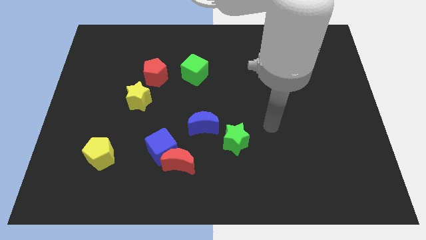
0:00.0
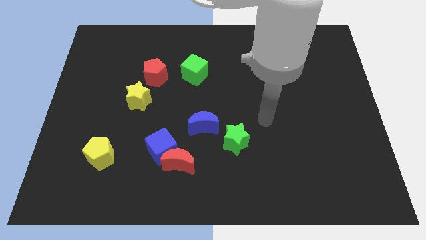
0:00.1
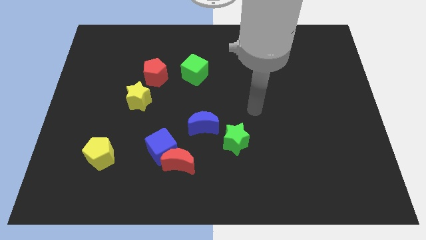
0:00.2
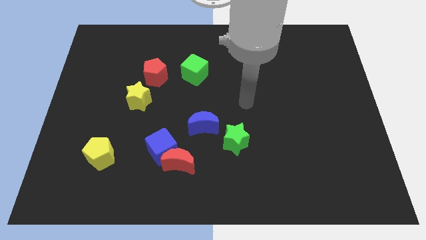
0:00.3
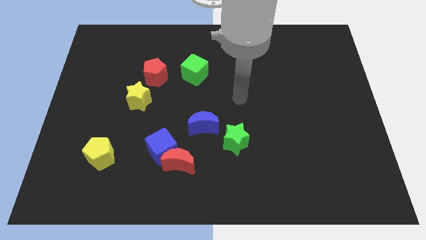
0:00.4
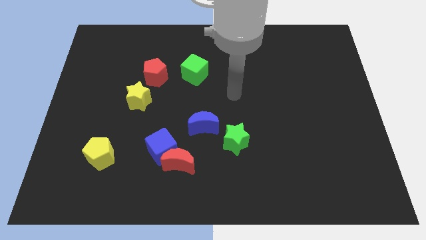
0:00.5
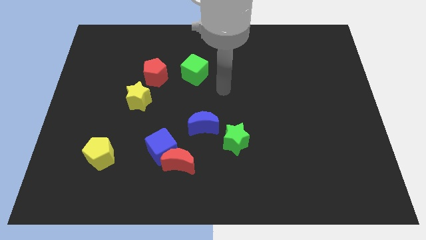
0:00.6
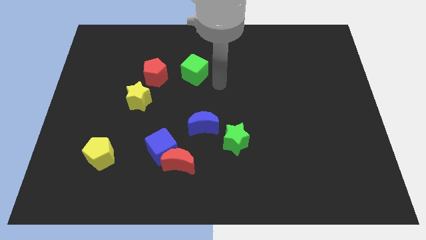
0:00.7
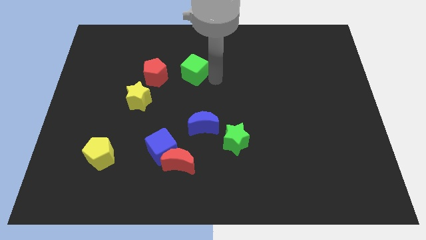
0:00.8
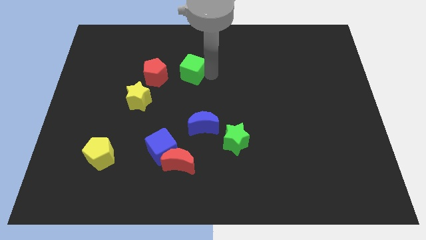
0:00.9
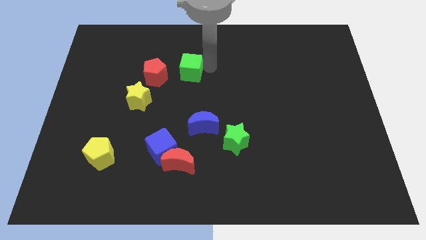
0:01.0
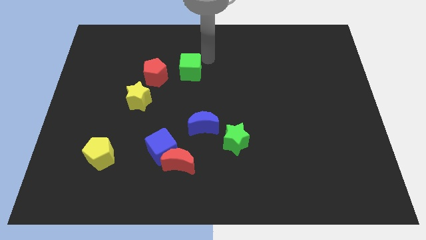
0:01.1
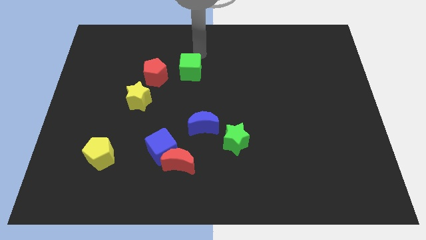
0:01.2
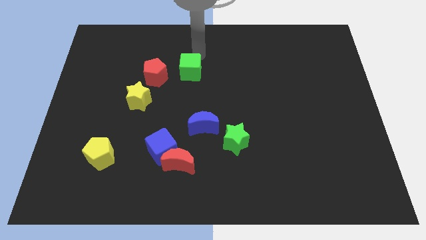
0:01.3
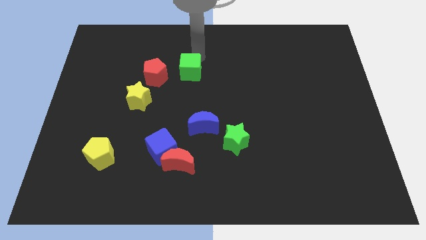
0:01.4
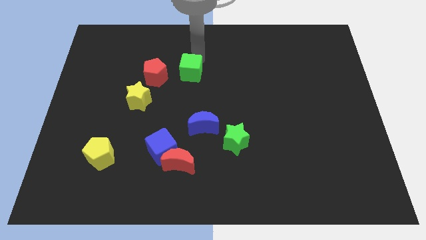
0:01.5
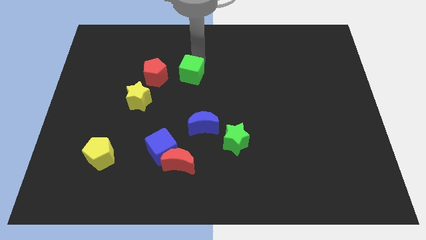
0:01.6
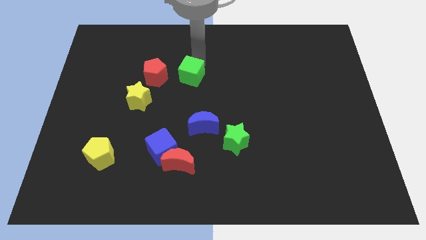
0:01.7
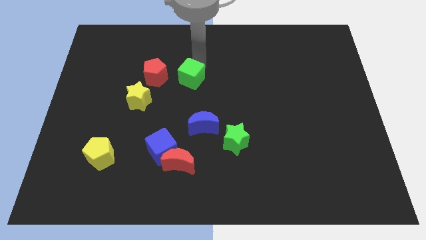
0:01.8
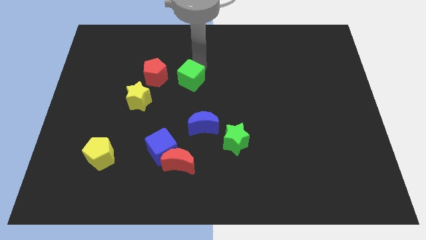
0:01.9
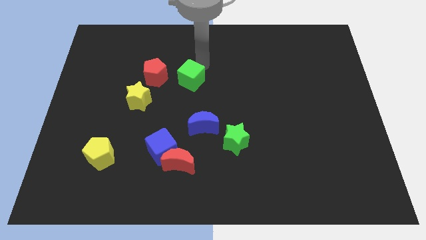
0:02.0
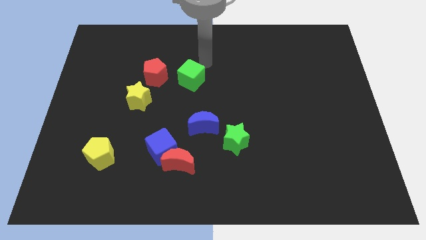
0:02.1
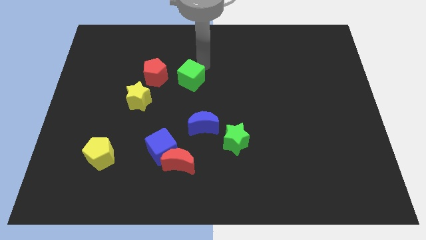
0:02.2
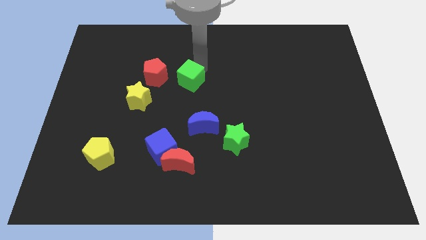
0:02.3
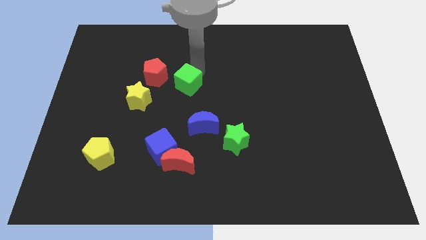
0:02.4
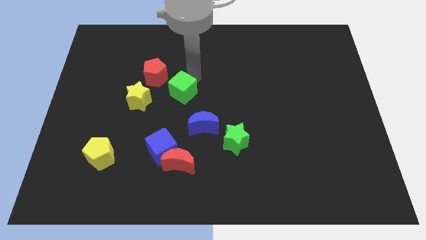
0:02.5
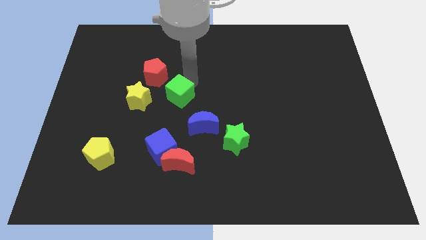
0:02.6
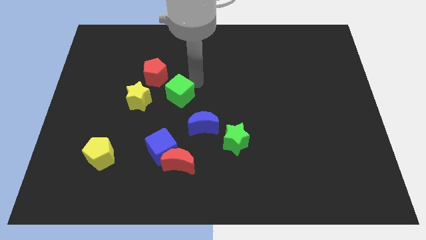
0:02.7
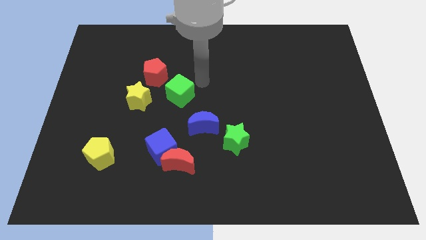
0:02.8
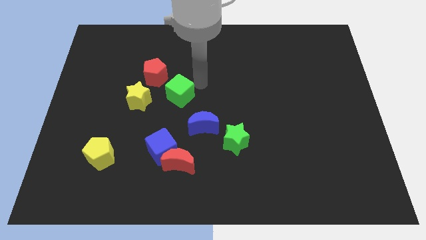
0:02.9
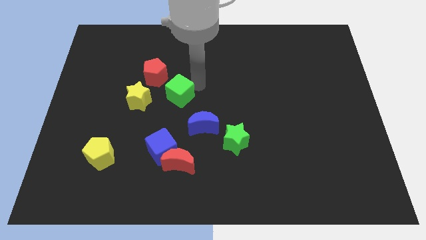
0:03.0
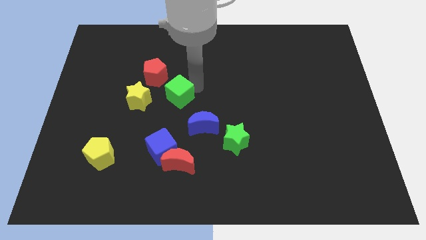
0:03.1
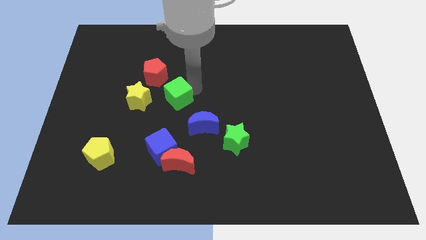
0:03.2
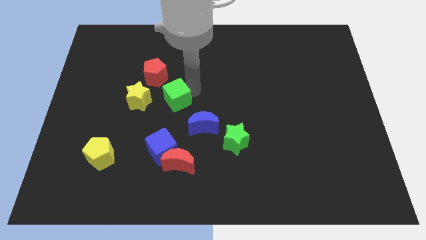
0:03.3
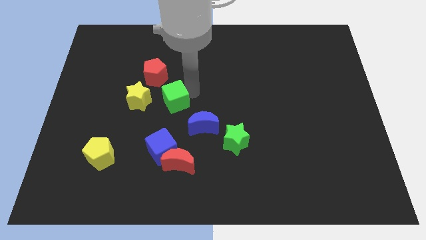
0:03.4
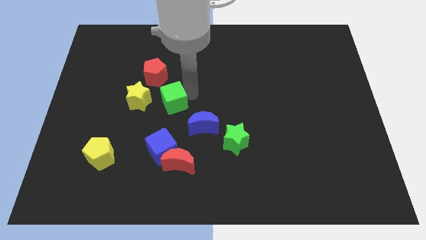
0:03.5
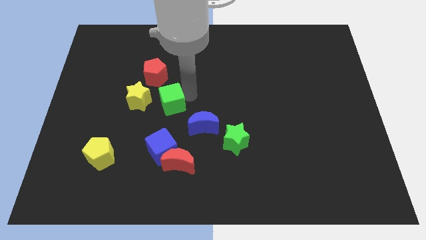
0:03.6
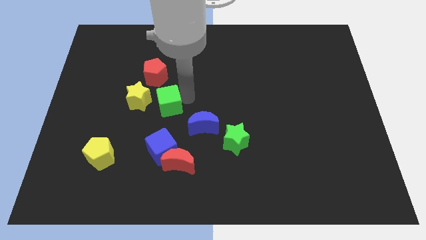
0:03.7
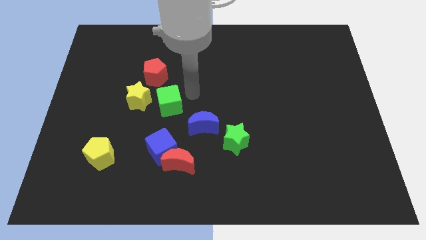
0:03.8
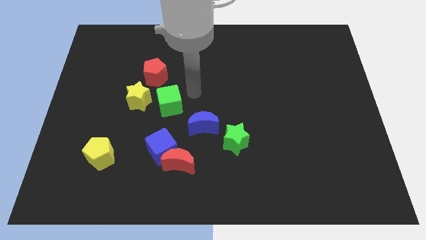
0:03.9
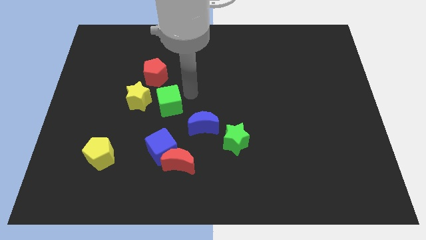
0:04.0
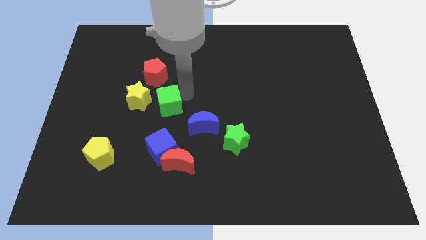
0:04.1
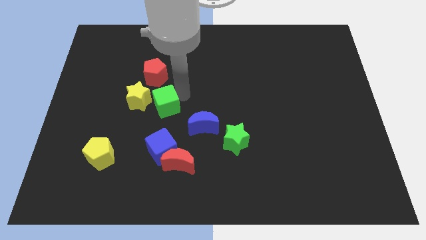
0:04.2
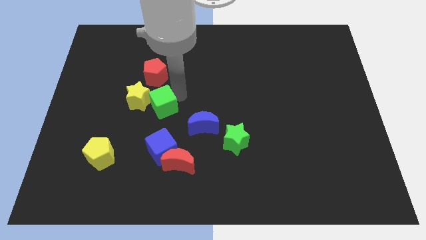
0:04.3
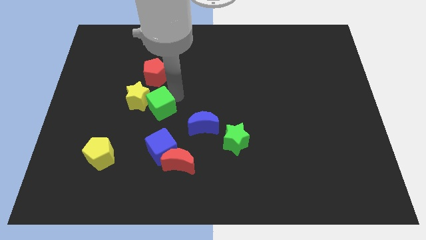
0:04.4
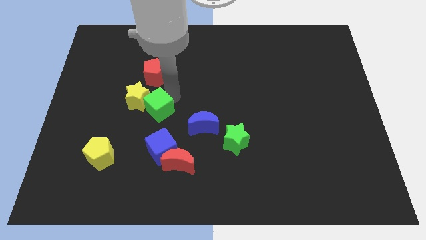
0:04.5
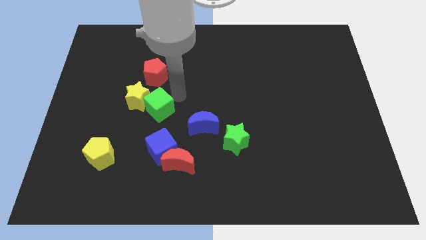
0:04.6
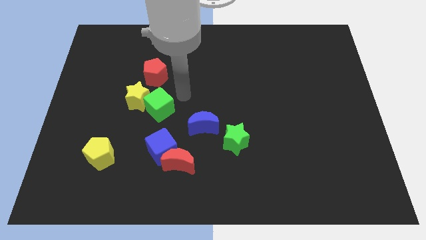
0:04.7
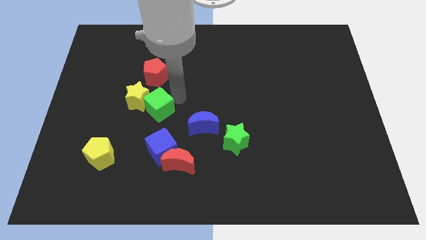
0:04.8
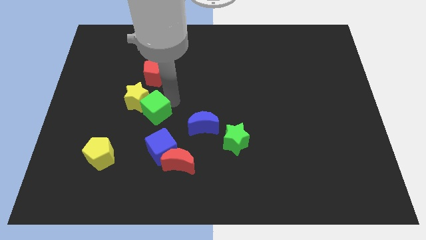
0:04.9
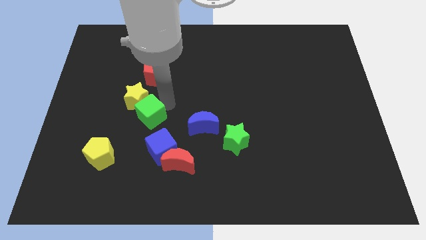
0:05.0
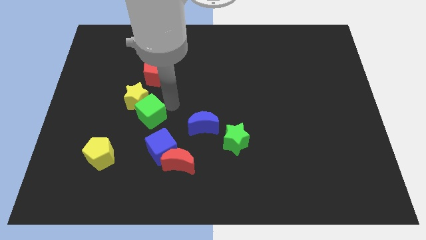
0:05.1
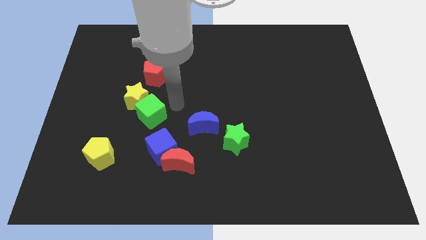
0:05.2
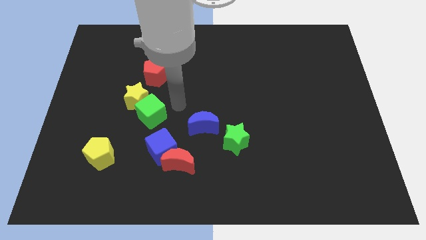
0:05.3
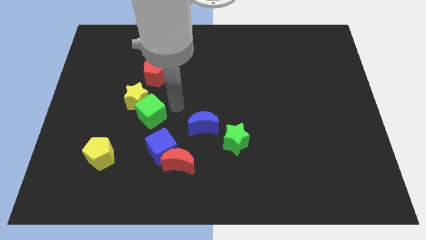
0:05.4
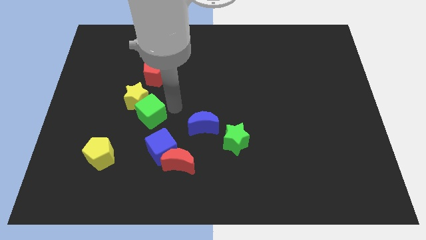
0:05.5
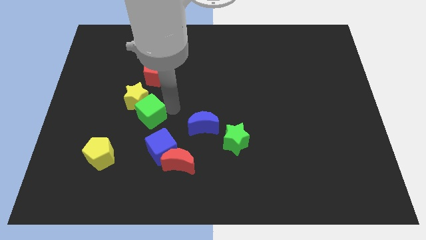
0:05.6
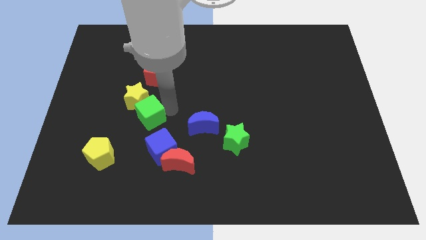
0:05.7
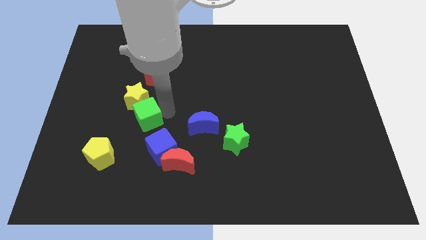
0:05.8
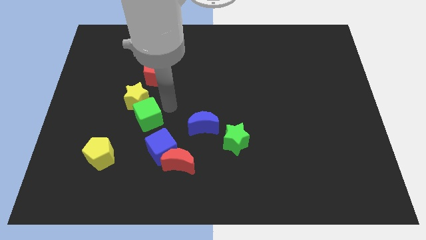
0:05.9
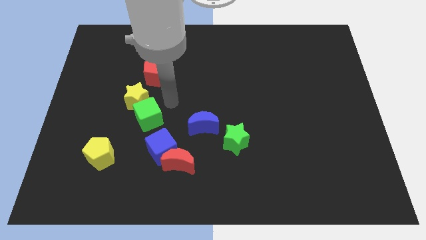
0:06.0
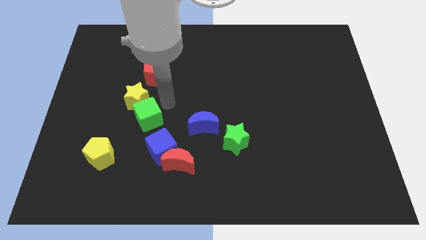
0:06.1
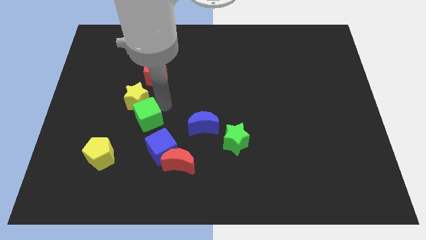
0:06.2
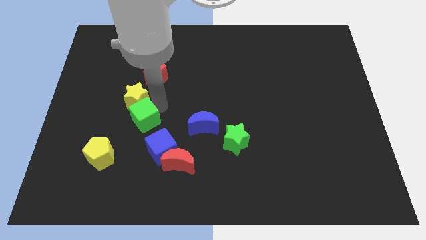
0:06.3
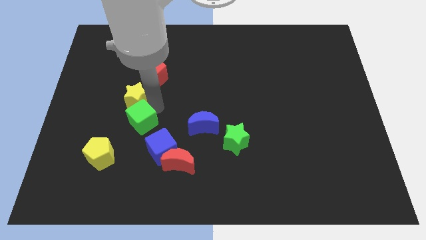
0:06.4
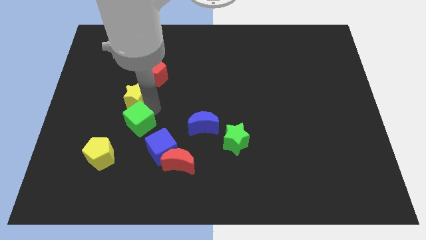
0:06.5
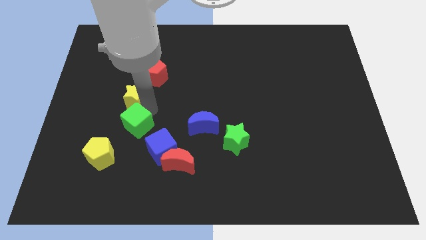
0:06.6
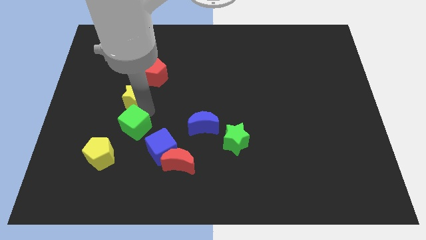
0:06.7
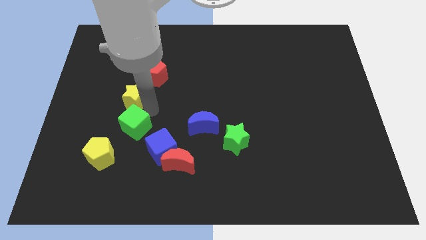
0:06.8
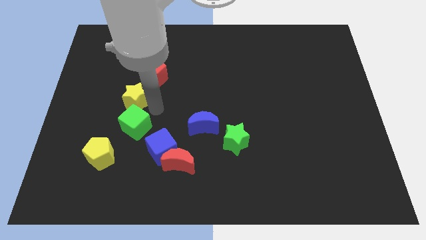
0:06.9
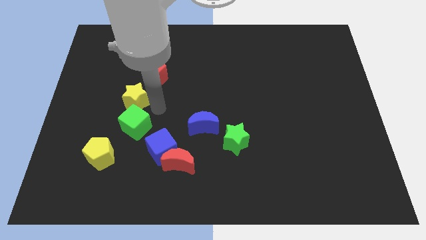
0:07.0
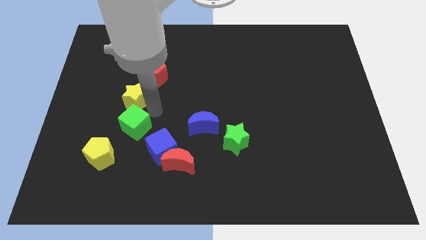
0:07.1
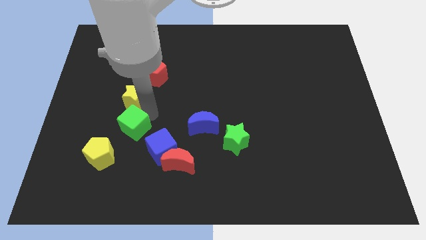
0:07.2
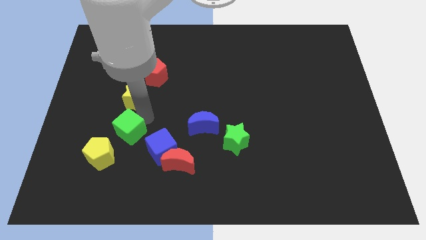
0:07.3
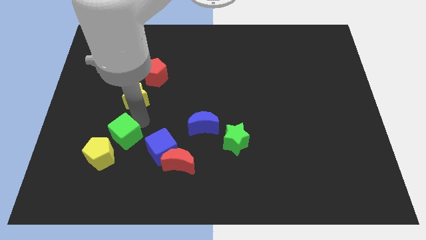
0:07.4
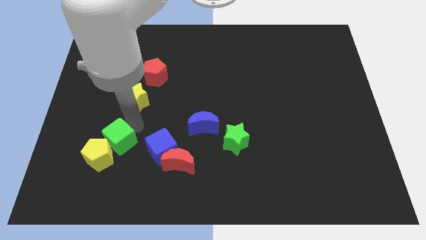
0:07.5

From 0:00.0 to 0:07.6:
push the green cube to the yellow pentagon
